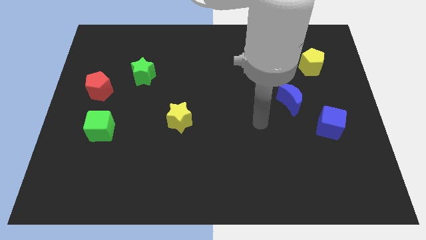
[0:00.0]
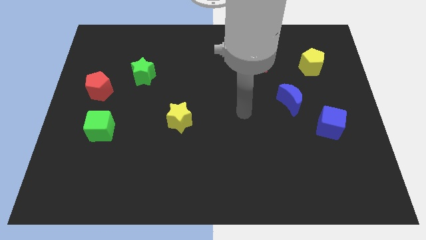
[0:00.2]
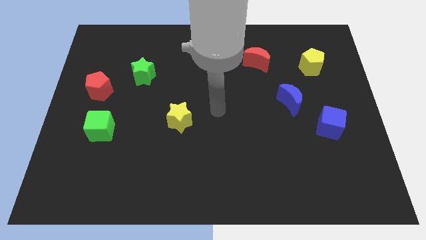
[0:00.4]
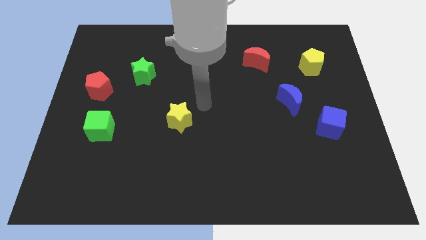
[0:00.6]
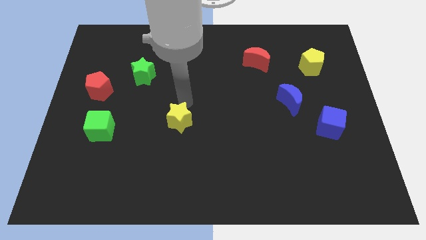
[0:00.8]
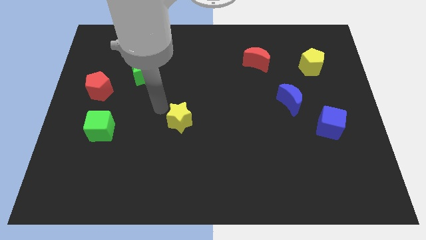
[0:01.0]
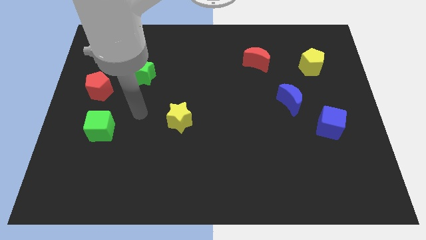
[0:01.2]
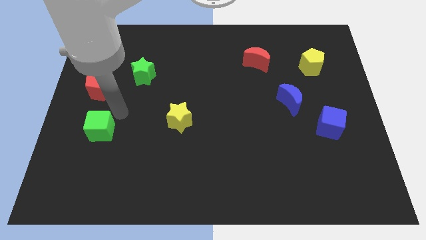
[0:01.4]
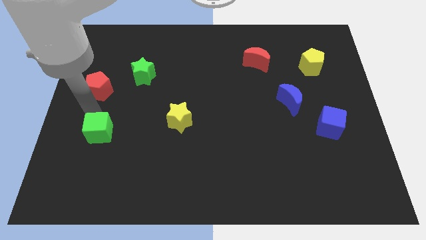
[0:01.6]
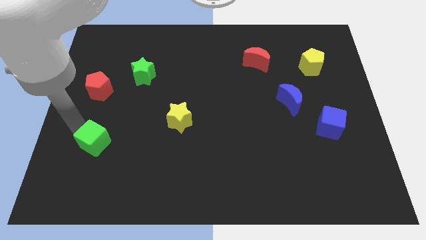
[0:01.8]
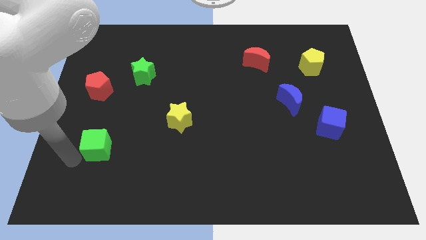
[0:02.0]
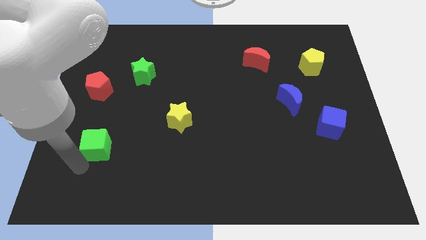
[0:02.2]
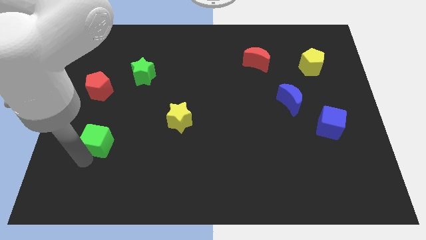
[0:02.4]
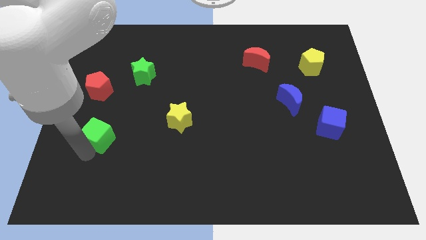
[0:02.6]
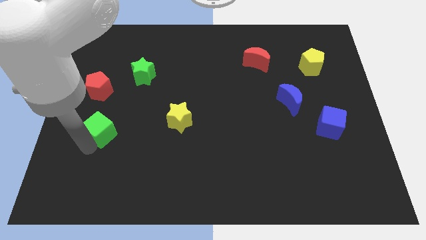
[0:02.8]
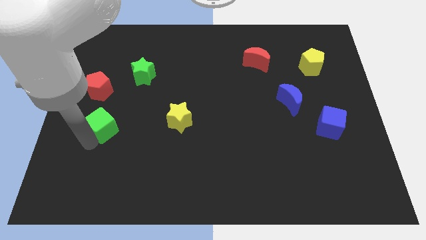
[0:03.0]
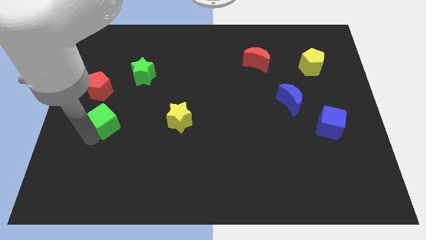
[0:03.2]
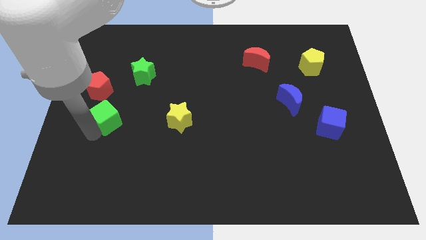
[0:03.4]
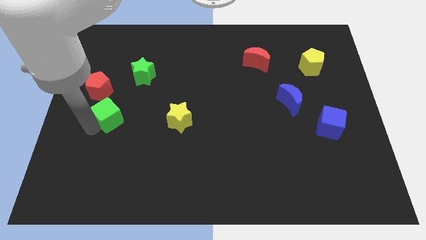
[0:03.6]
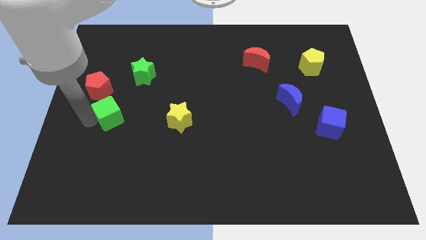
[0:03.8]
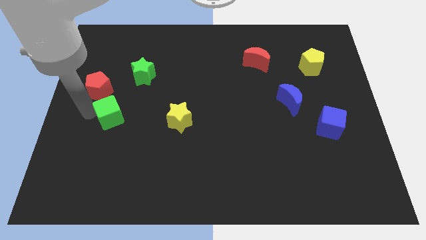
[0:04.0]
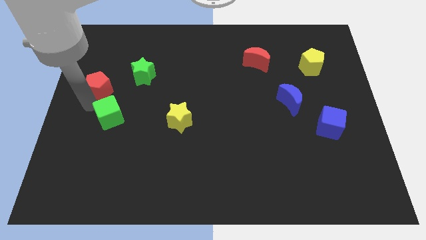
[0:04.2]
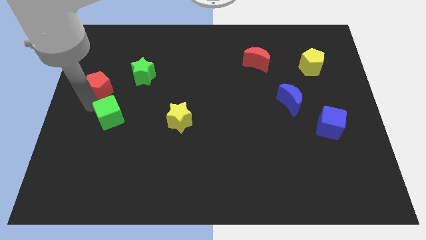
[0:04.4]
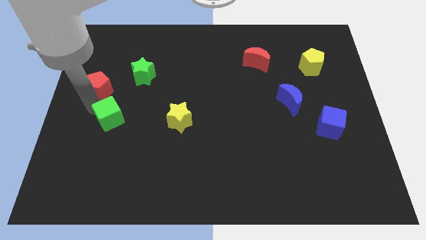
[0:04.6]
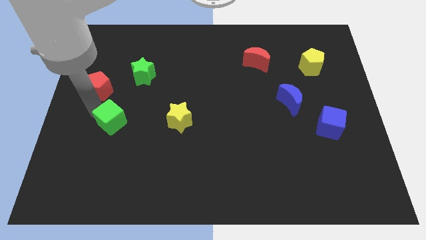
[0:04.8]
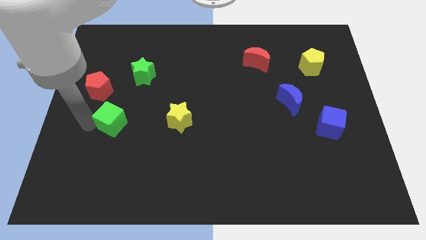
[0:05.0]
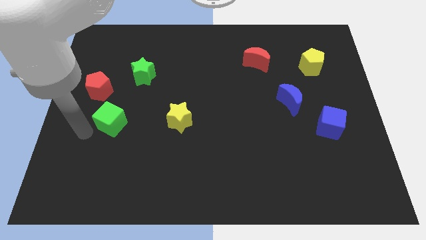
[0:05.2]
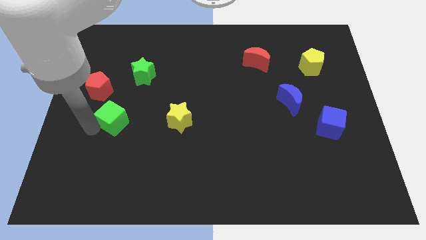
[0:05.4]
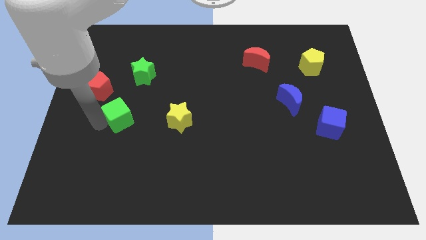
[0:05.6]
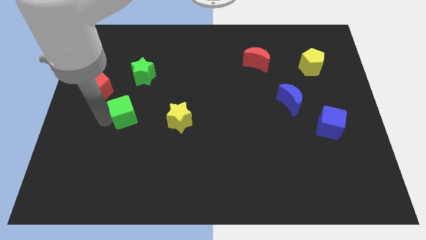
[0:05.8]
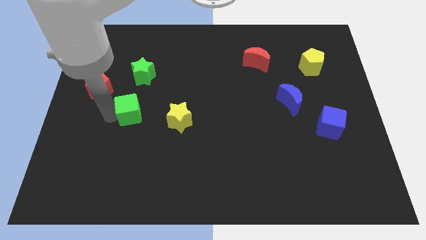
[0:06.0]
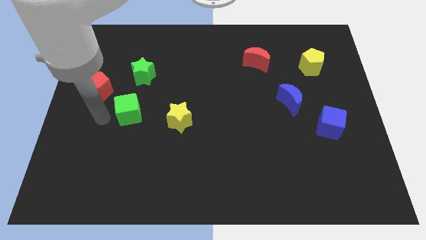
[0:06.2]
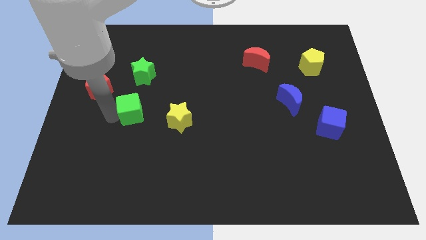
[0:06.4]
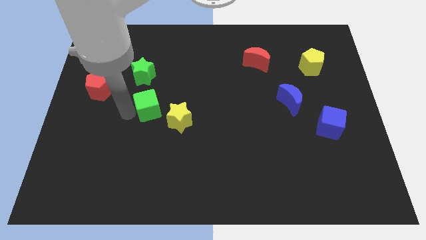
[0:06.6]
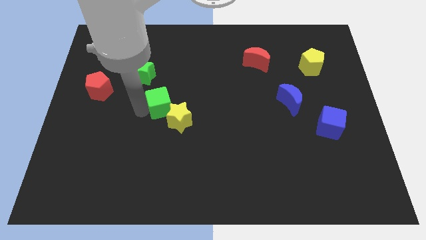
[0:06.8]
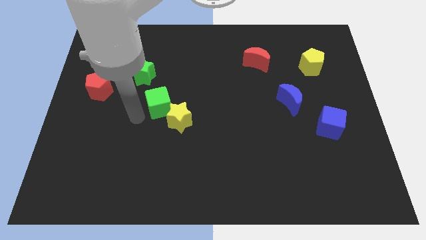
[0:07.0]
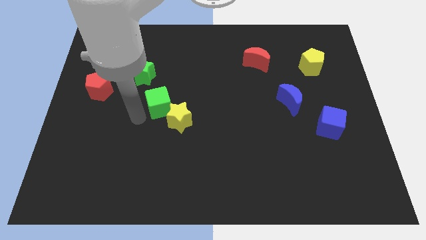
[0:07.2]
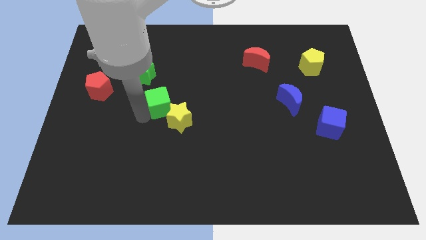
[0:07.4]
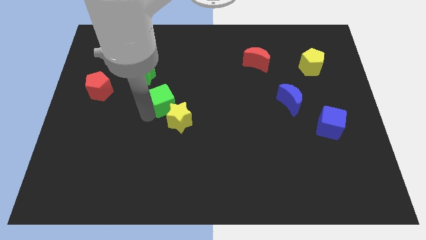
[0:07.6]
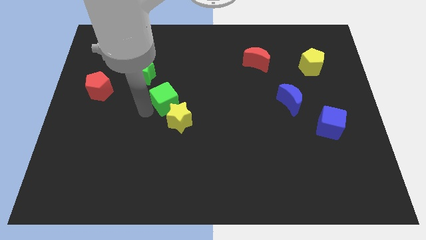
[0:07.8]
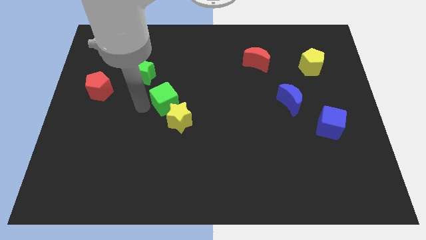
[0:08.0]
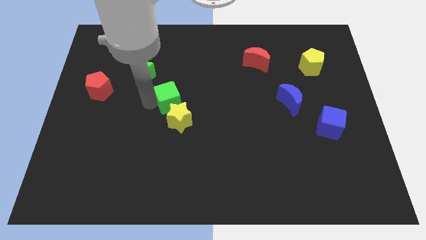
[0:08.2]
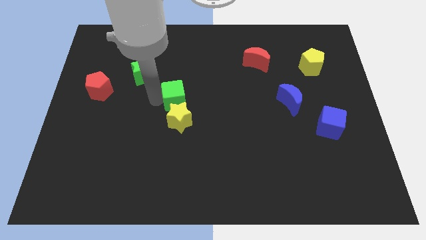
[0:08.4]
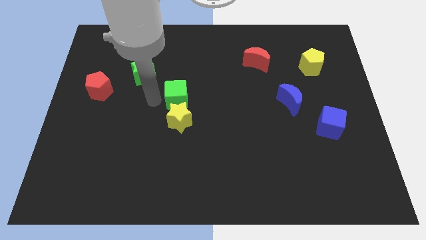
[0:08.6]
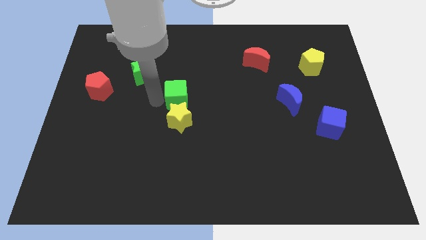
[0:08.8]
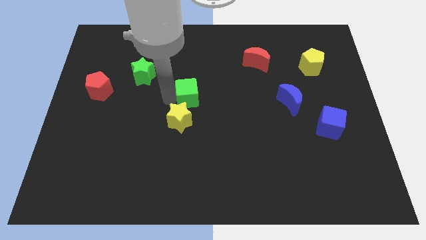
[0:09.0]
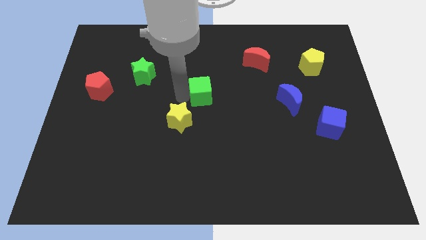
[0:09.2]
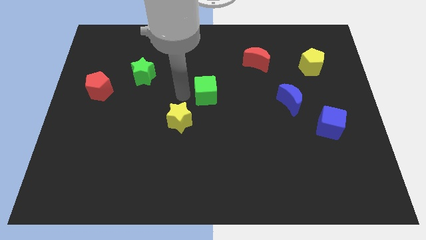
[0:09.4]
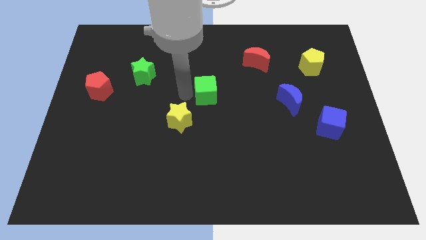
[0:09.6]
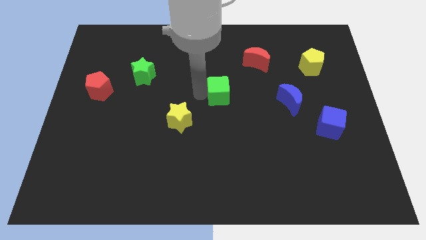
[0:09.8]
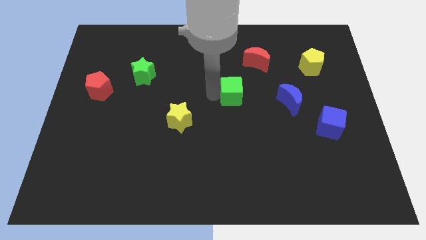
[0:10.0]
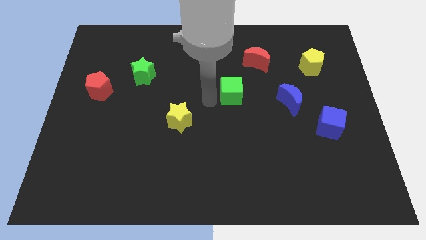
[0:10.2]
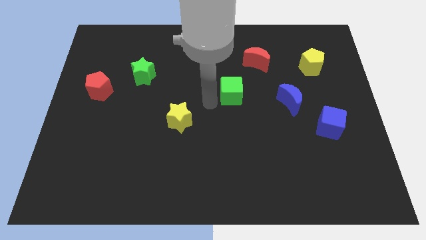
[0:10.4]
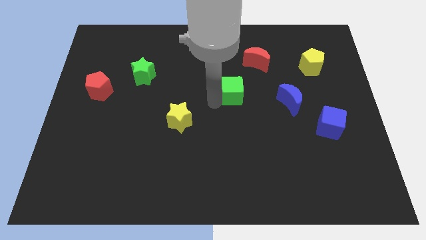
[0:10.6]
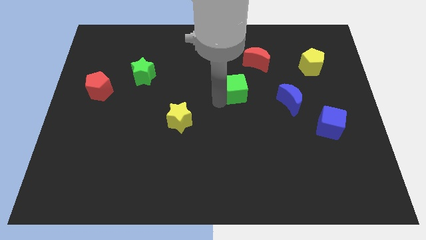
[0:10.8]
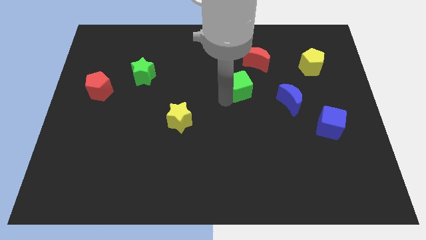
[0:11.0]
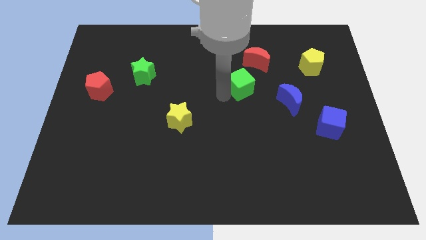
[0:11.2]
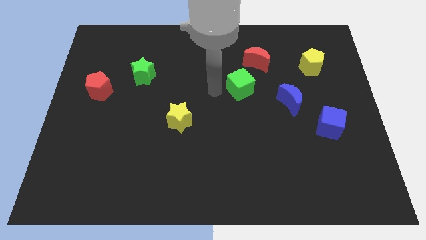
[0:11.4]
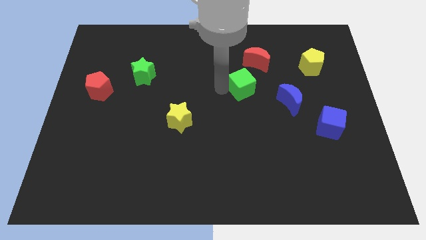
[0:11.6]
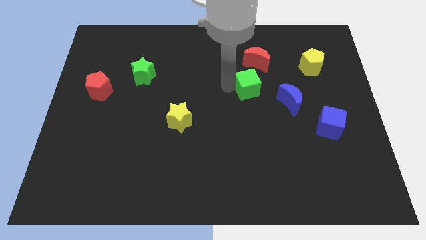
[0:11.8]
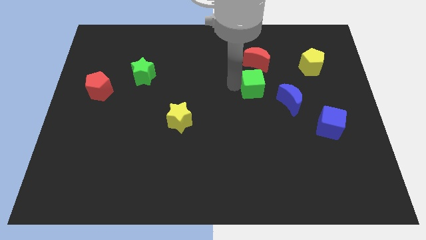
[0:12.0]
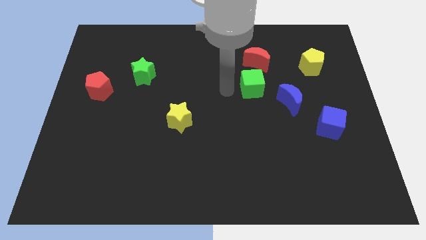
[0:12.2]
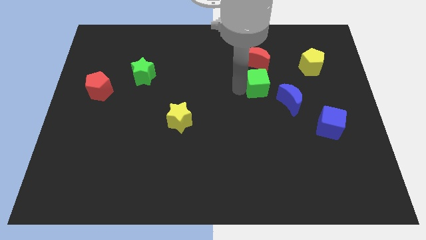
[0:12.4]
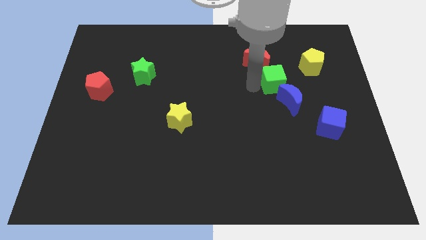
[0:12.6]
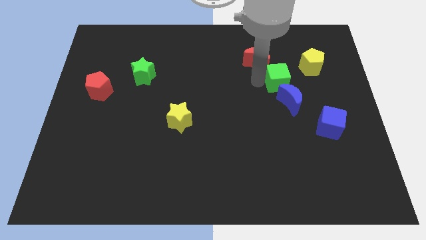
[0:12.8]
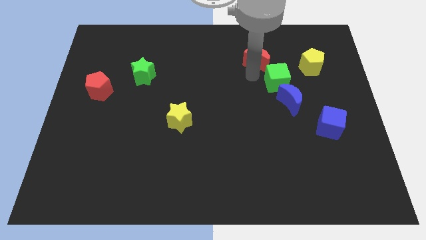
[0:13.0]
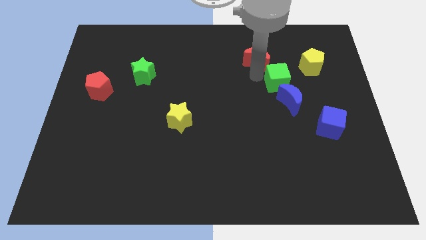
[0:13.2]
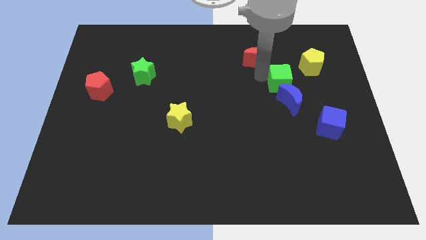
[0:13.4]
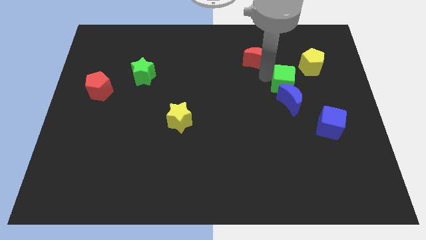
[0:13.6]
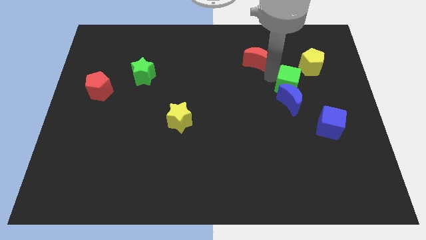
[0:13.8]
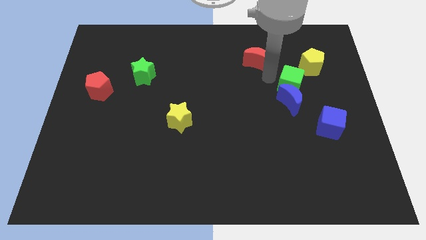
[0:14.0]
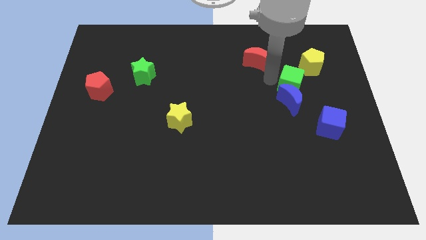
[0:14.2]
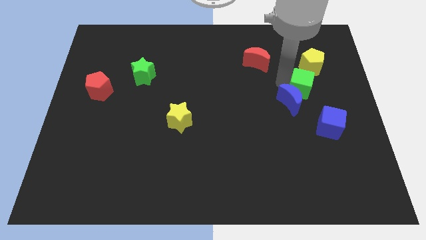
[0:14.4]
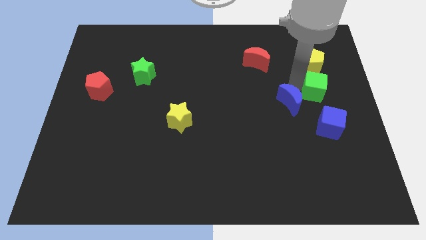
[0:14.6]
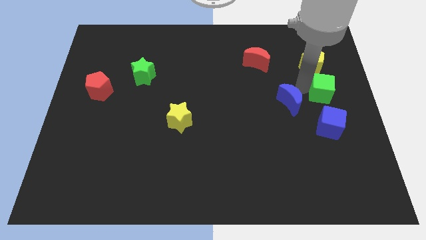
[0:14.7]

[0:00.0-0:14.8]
push the green cube to the center right
